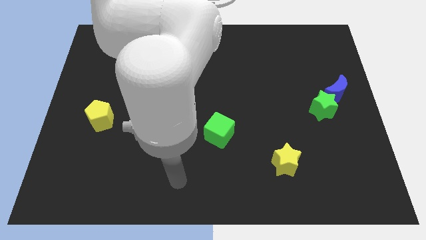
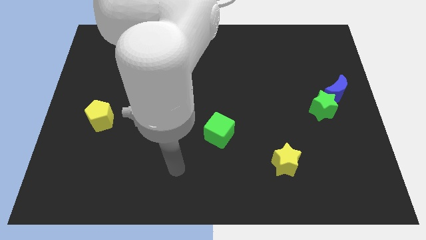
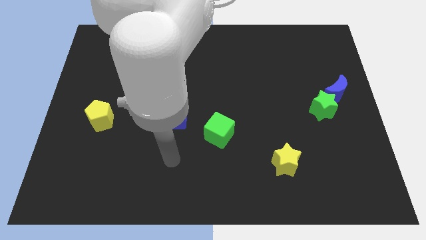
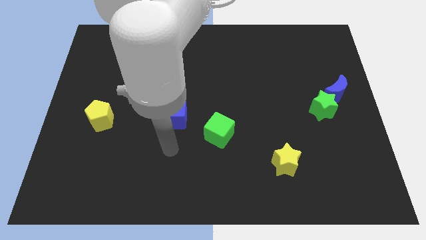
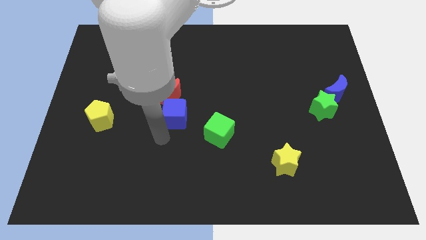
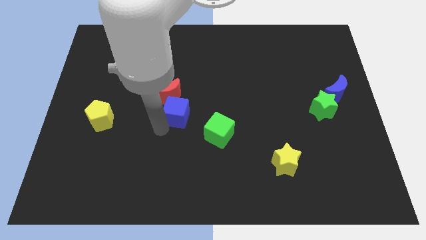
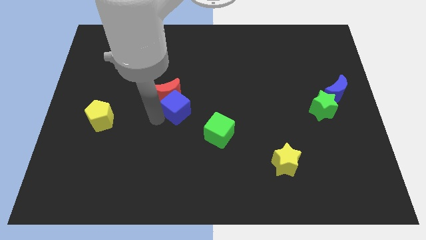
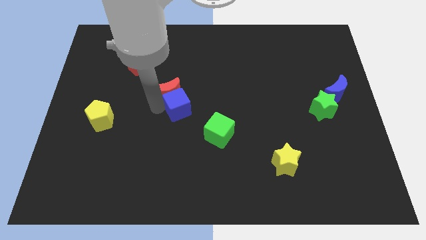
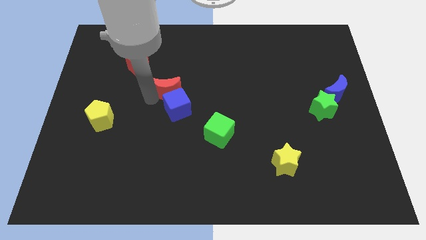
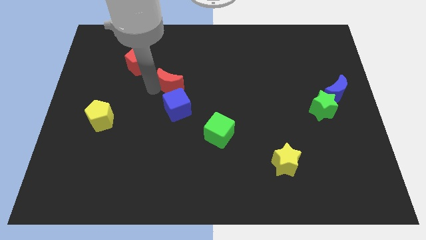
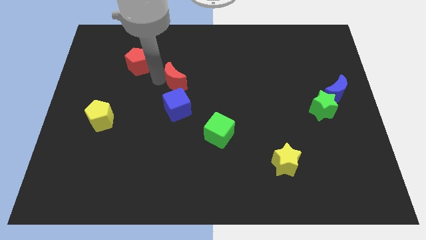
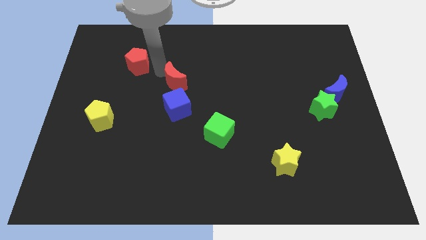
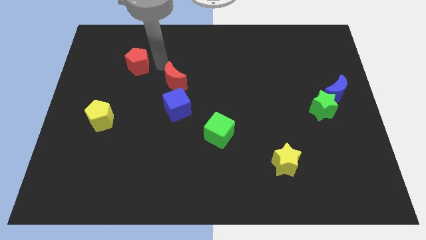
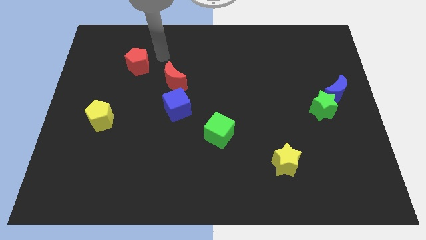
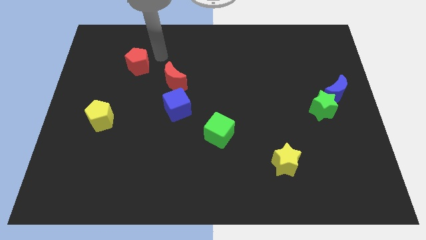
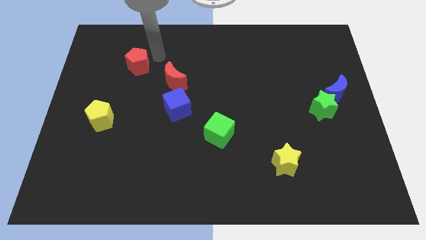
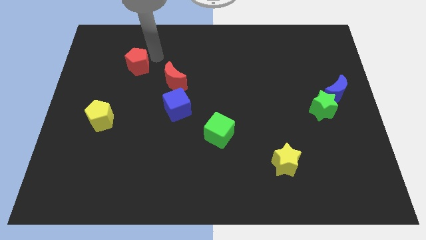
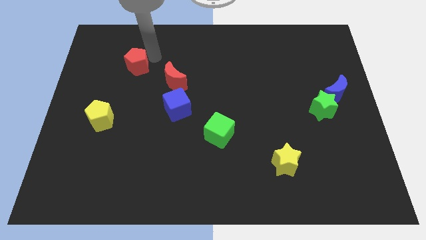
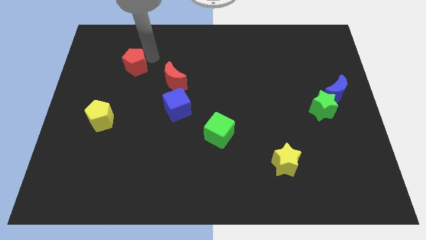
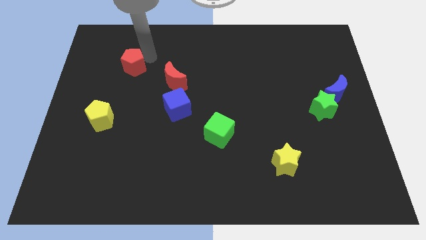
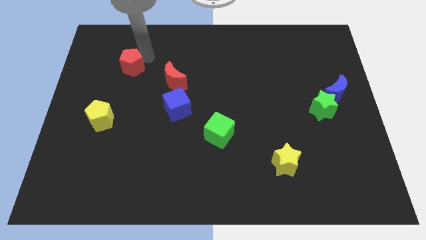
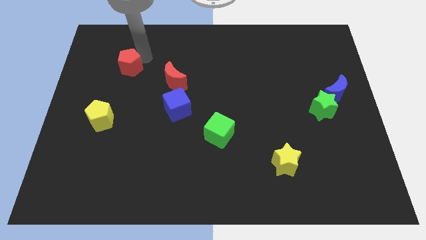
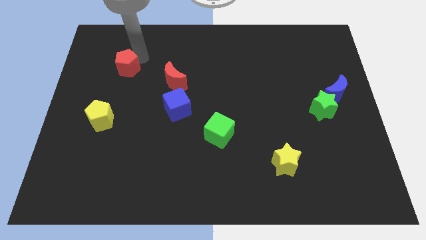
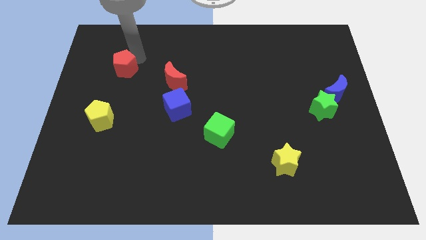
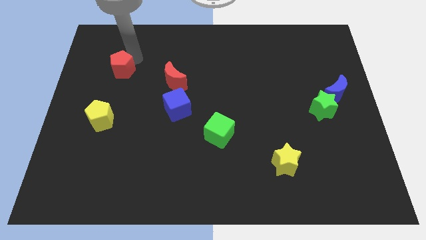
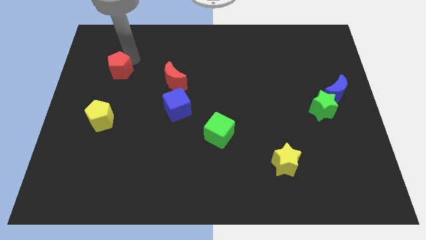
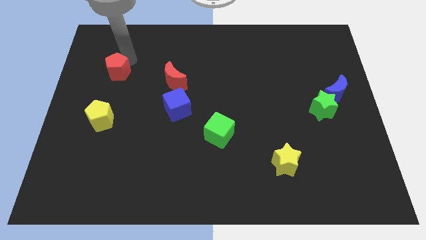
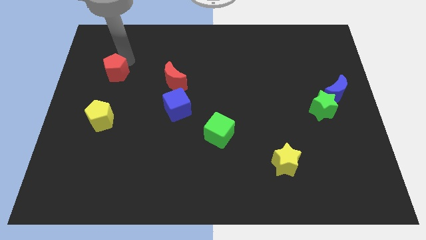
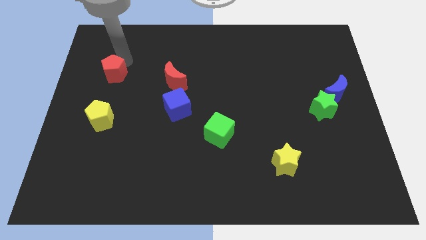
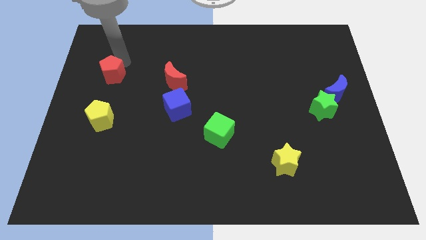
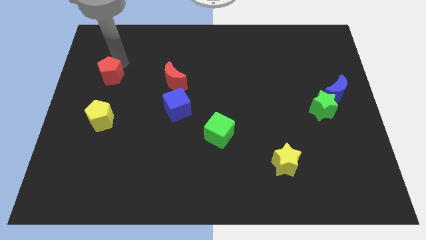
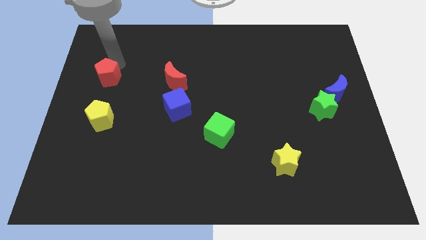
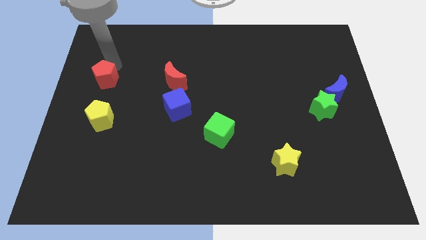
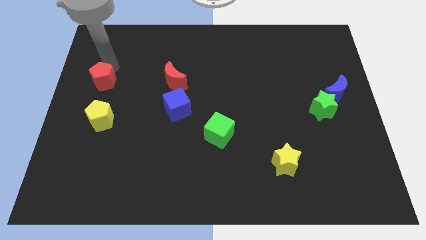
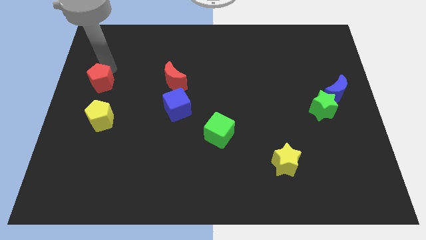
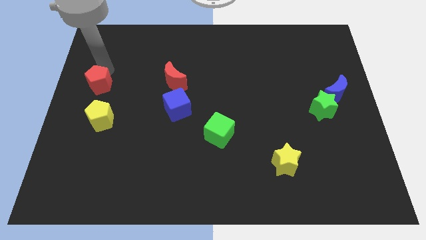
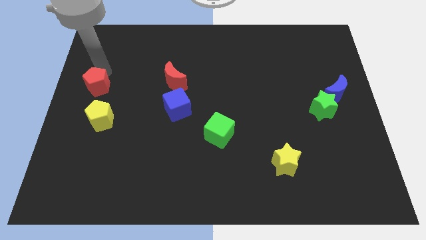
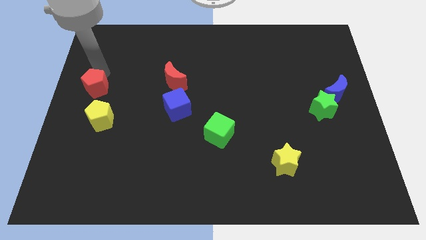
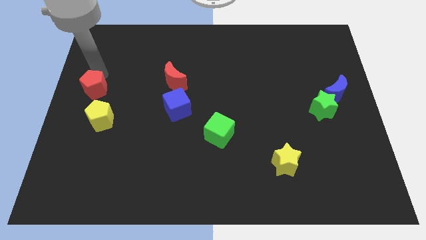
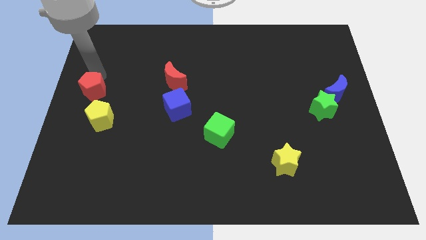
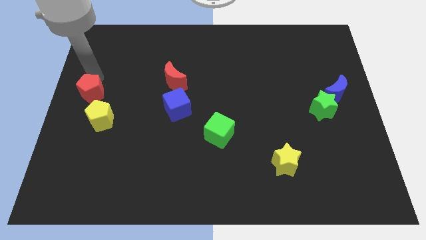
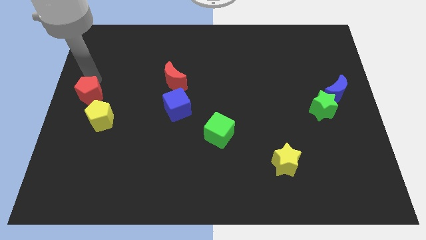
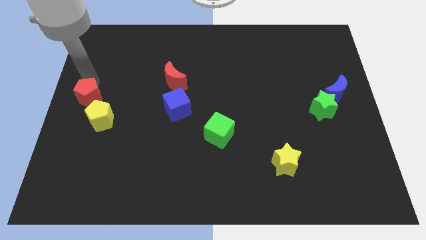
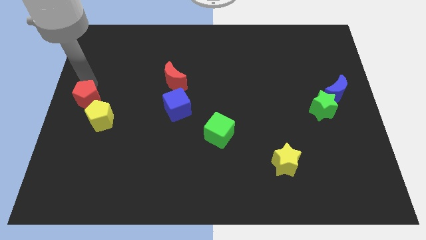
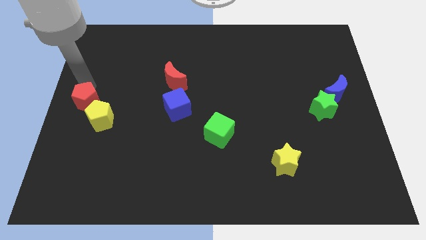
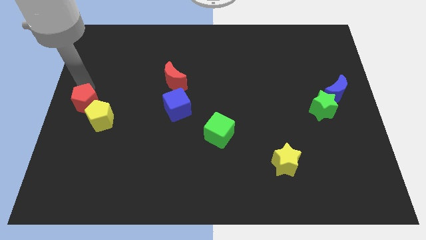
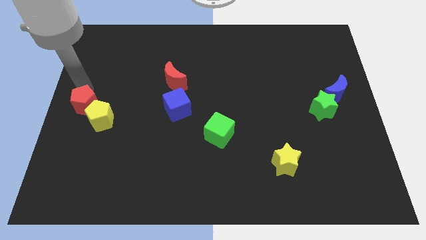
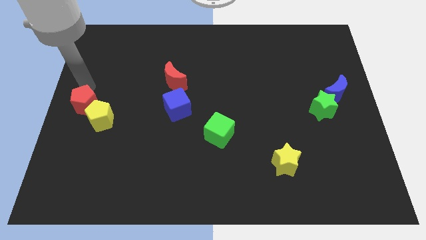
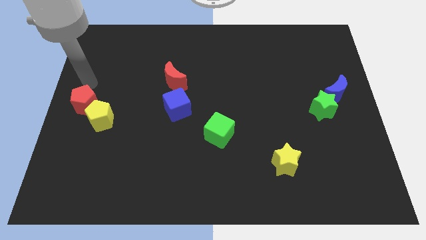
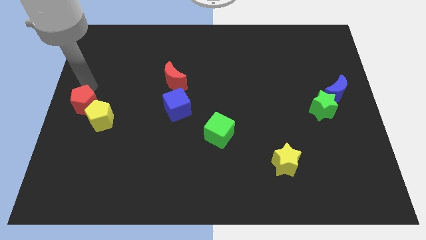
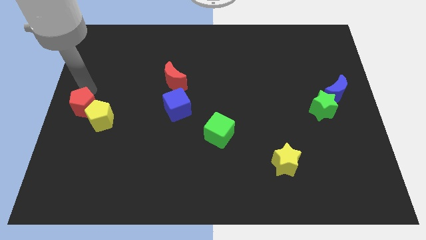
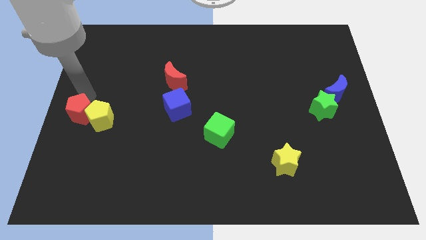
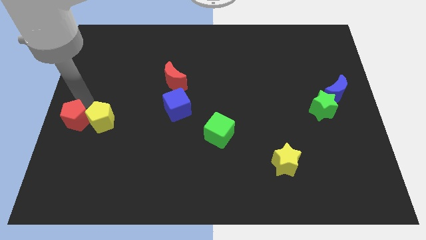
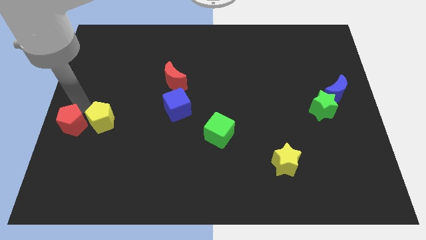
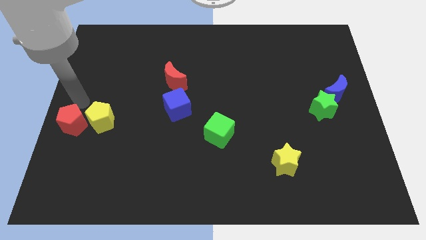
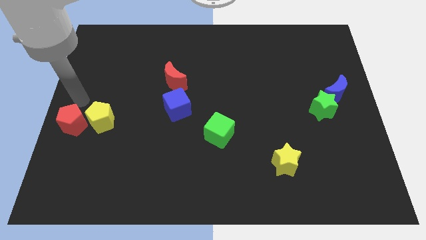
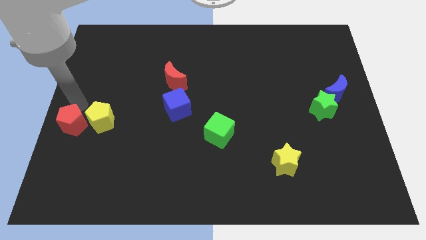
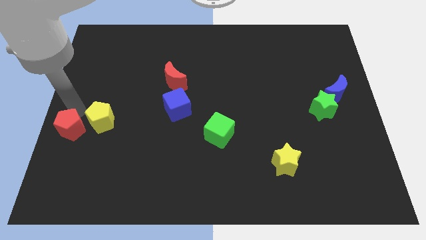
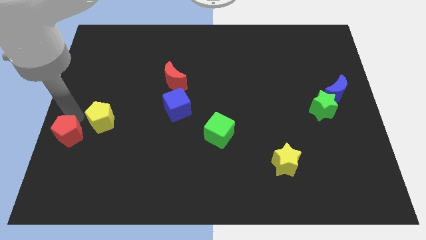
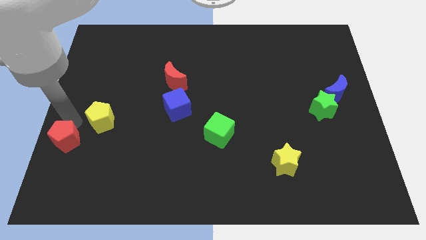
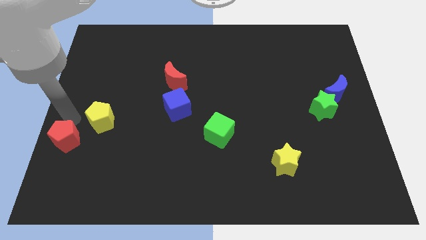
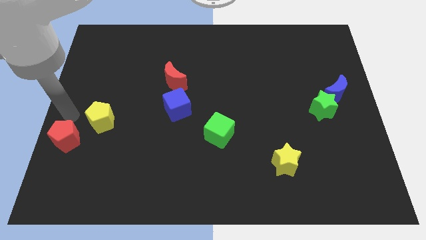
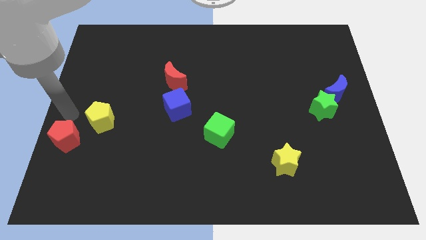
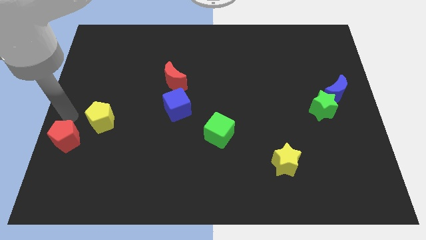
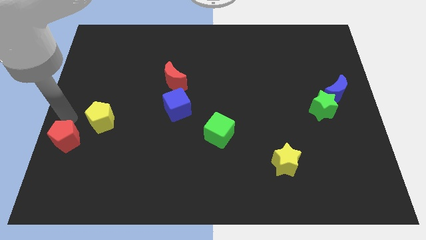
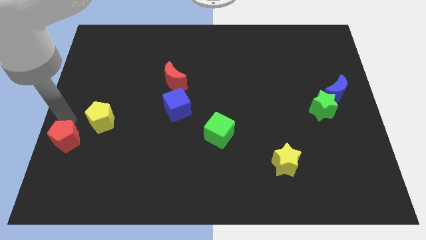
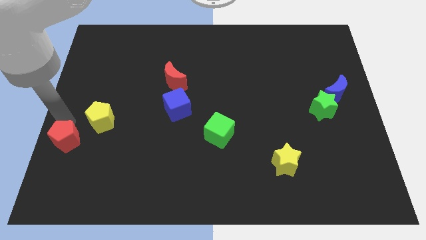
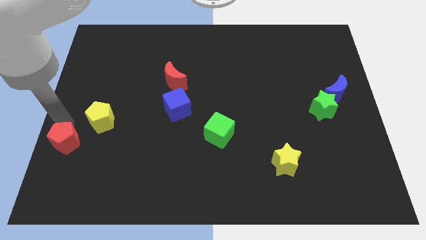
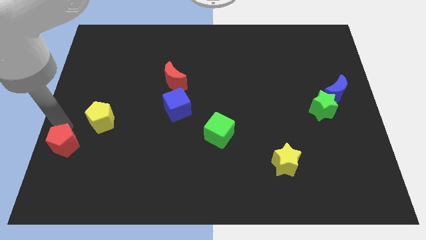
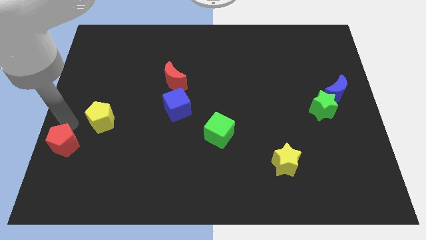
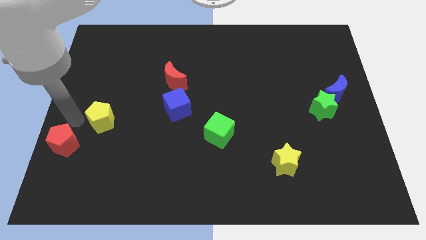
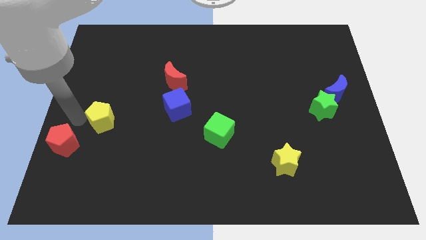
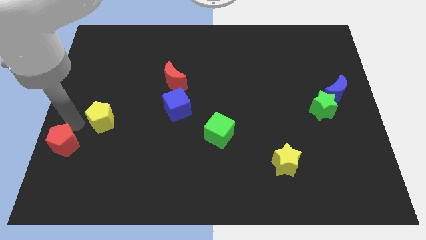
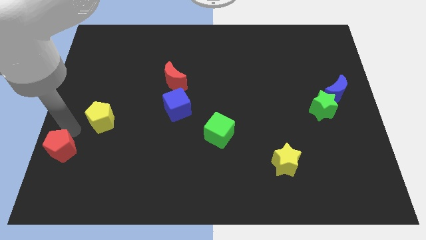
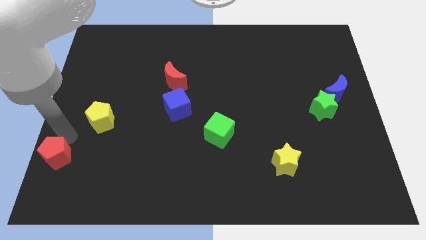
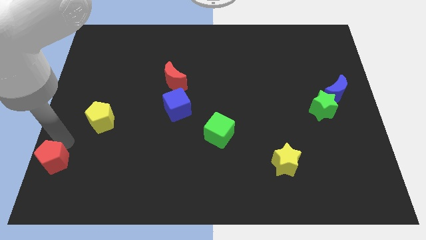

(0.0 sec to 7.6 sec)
put the red pentagon to the bottom left corner
